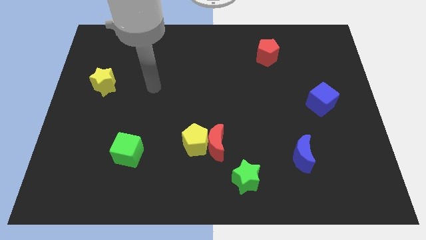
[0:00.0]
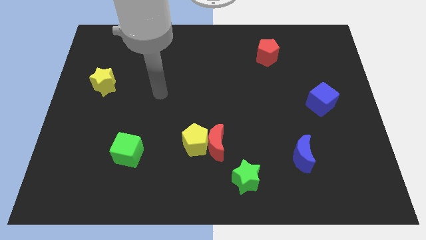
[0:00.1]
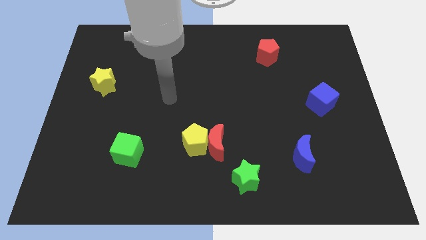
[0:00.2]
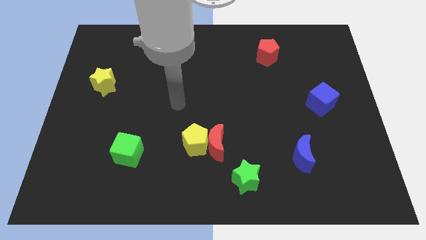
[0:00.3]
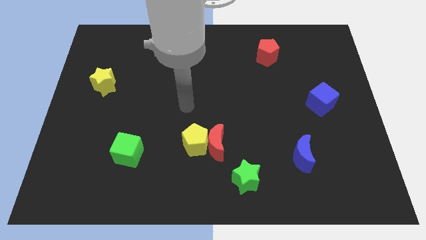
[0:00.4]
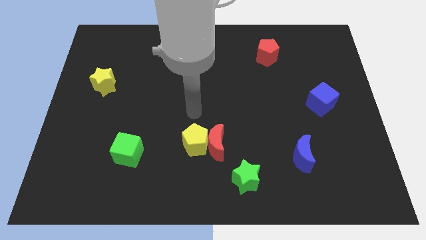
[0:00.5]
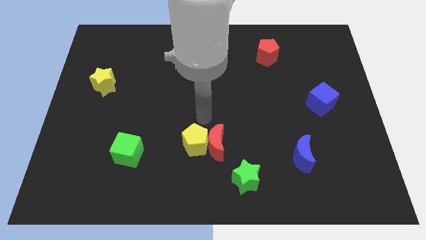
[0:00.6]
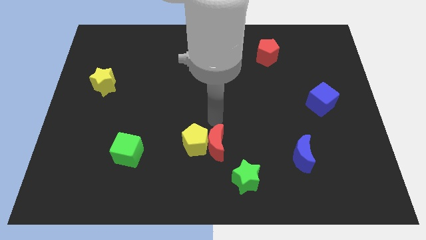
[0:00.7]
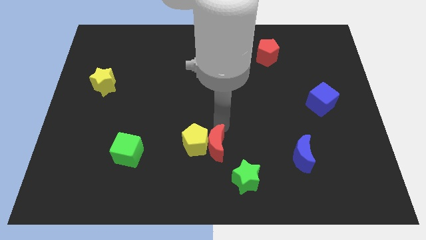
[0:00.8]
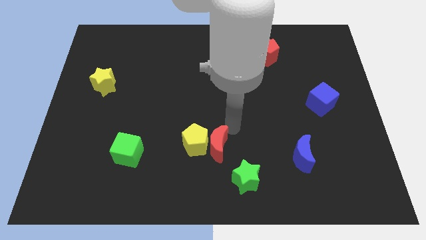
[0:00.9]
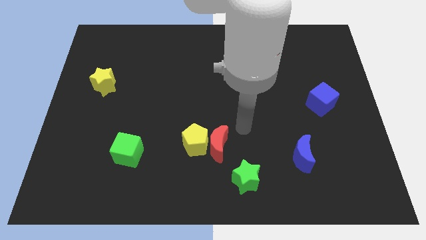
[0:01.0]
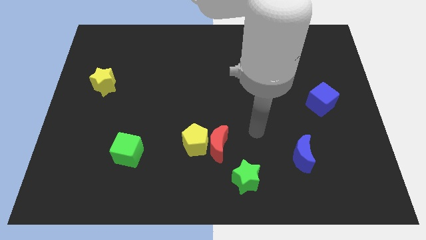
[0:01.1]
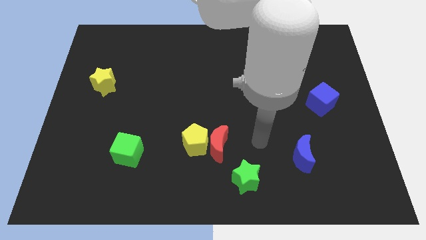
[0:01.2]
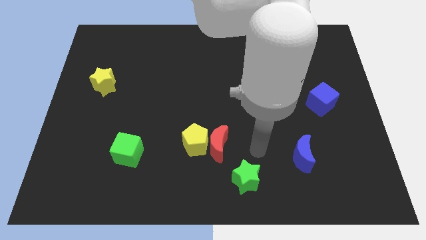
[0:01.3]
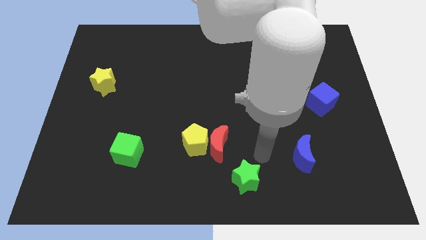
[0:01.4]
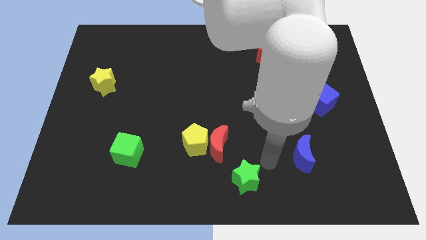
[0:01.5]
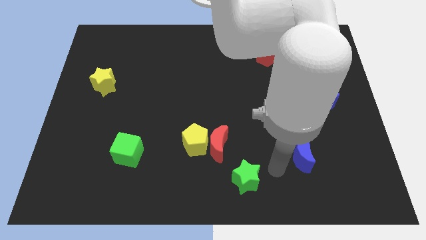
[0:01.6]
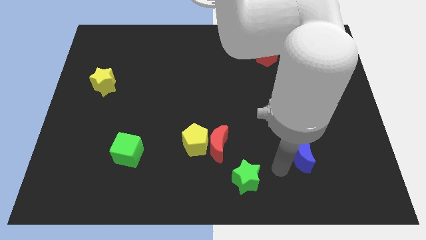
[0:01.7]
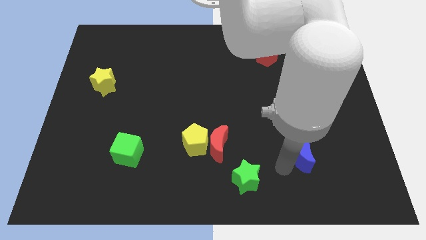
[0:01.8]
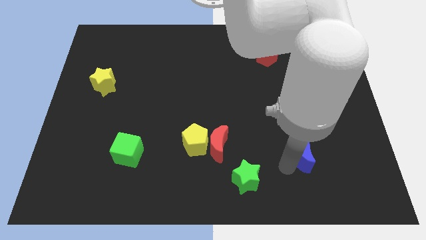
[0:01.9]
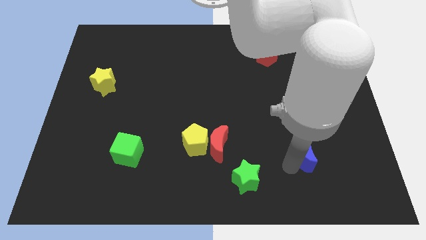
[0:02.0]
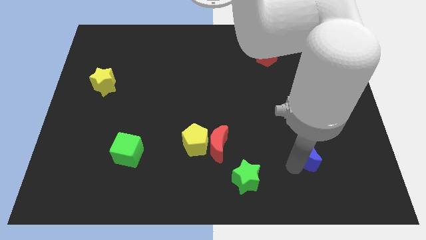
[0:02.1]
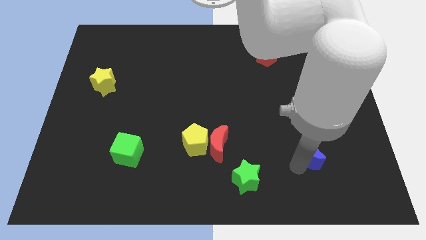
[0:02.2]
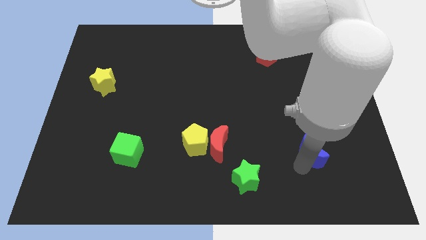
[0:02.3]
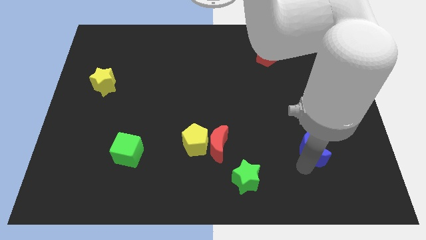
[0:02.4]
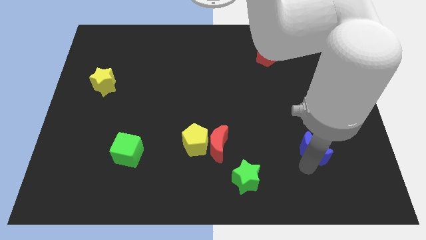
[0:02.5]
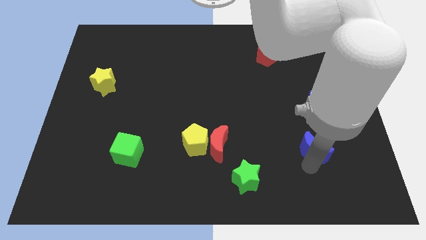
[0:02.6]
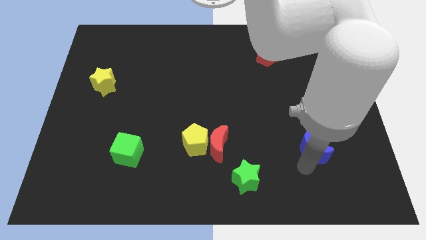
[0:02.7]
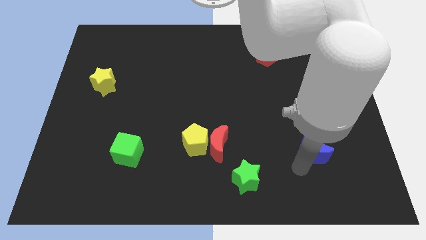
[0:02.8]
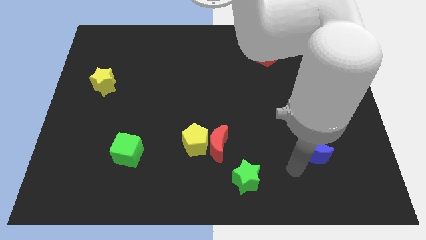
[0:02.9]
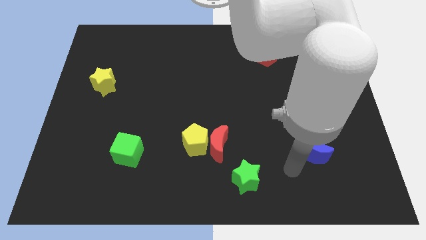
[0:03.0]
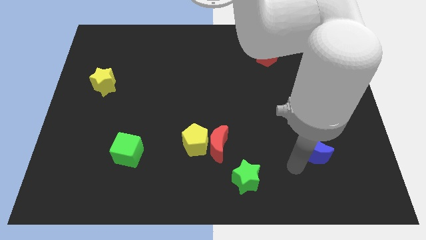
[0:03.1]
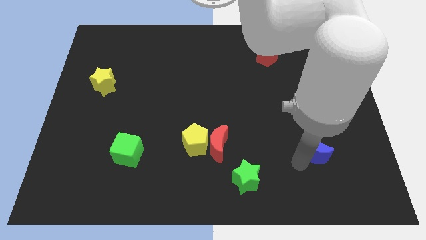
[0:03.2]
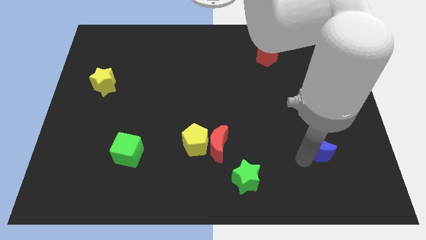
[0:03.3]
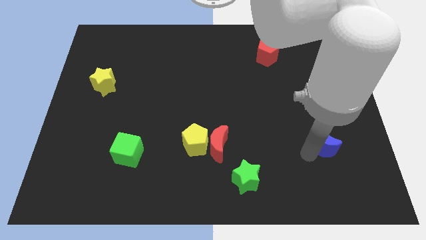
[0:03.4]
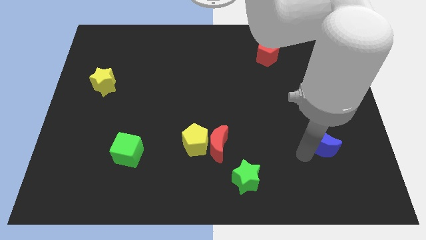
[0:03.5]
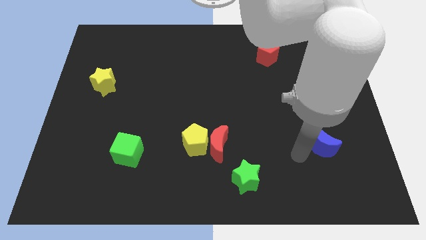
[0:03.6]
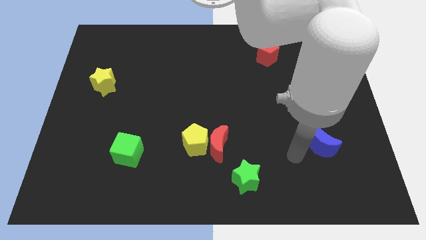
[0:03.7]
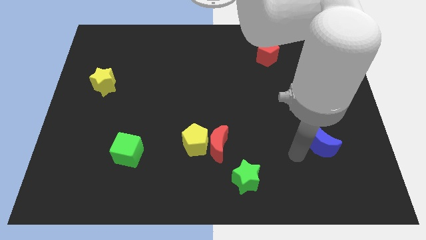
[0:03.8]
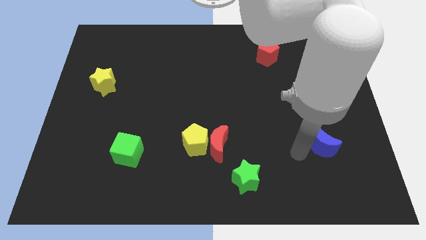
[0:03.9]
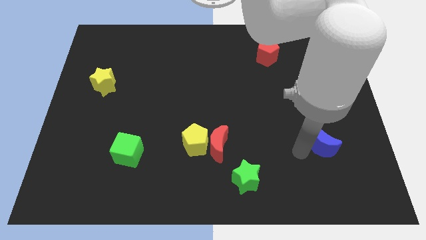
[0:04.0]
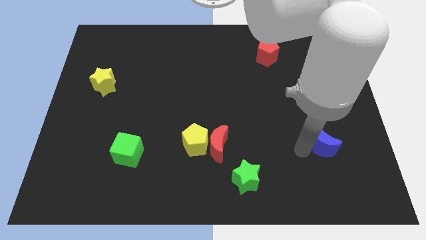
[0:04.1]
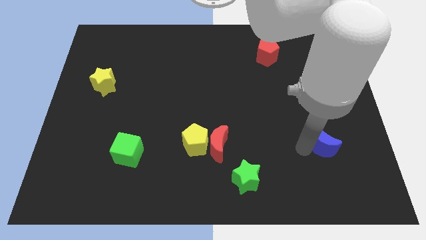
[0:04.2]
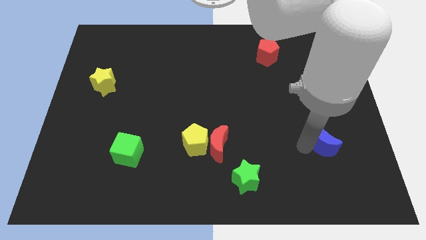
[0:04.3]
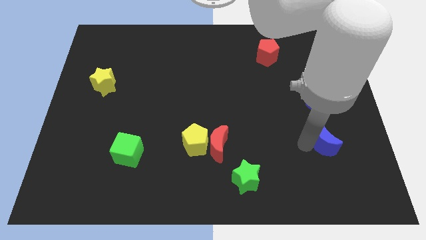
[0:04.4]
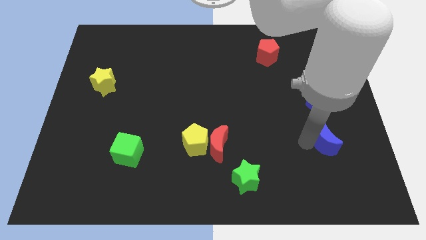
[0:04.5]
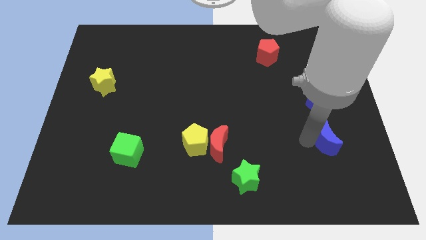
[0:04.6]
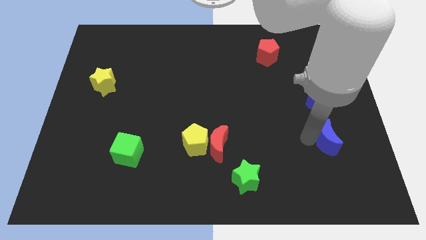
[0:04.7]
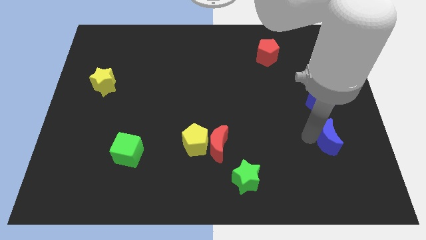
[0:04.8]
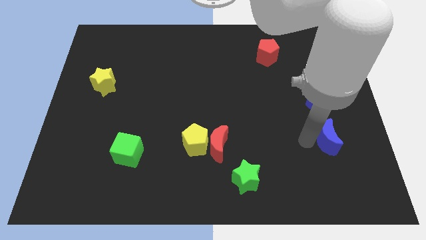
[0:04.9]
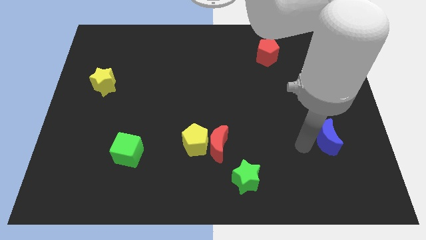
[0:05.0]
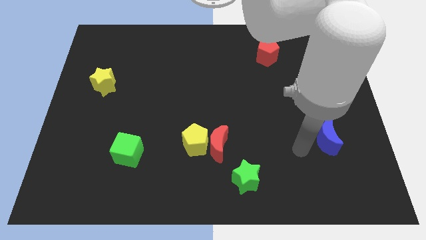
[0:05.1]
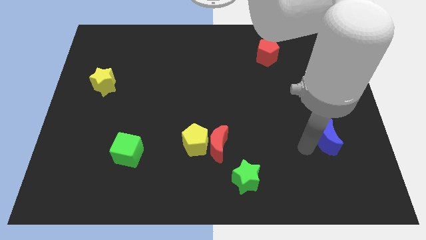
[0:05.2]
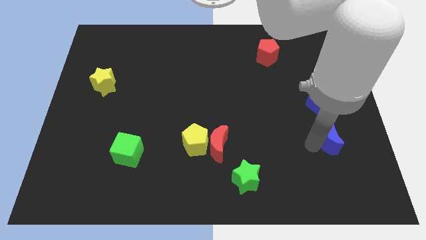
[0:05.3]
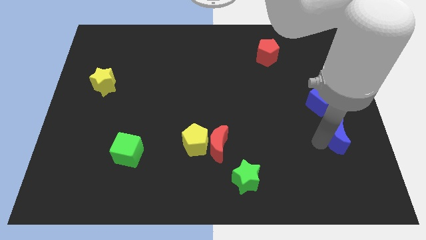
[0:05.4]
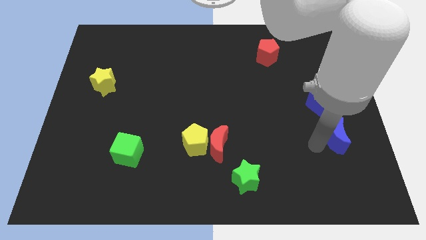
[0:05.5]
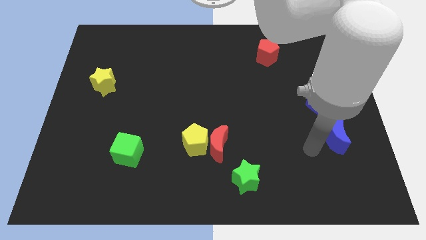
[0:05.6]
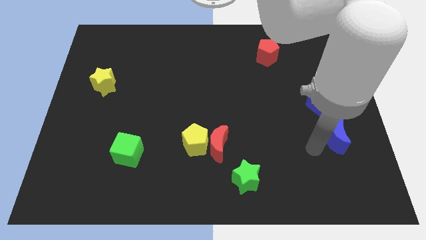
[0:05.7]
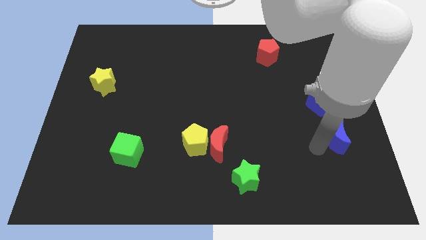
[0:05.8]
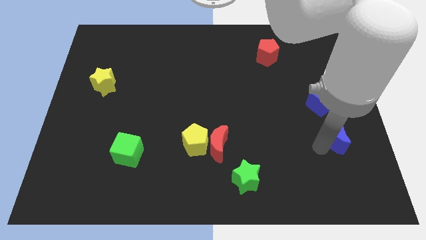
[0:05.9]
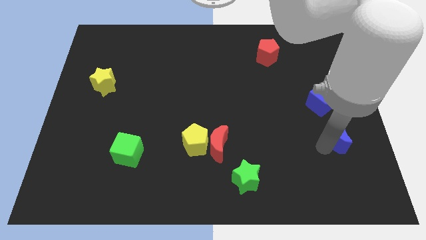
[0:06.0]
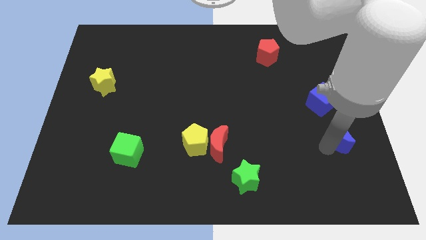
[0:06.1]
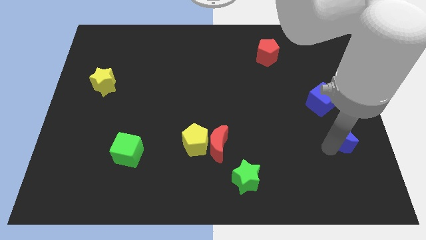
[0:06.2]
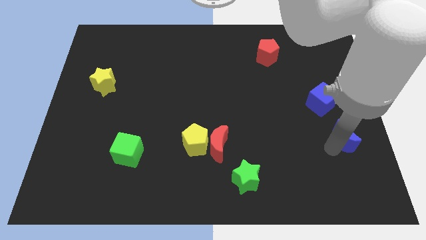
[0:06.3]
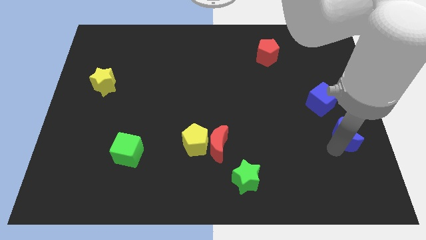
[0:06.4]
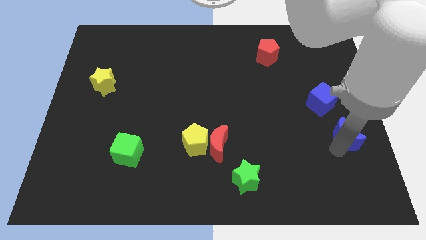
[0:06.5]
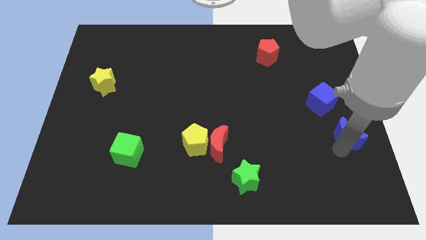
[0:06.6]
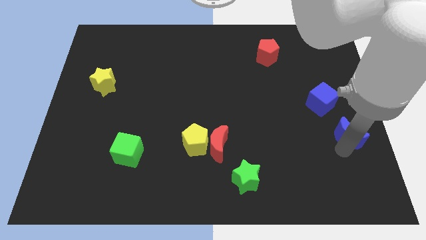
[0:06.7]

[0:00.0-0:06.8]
move the blue moon to the right side
